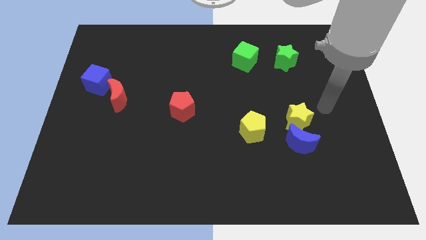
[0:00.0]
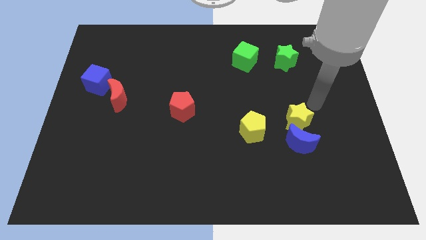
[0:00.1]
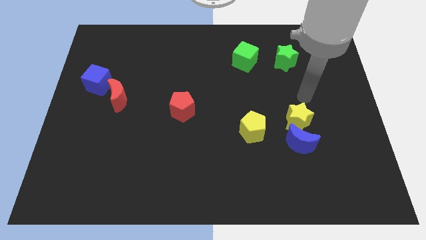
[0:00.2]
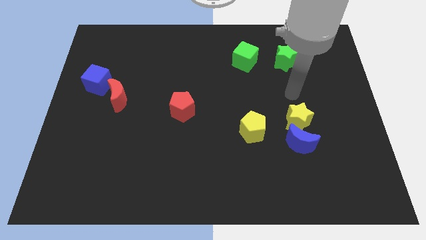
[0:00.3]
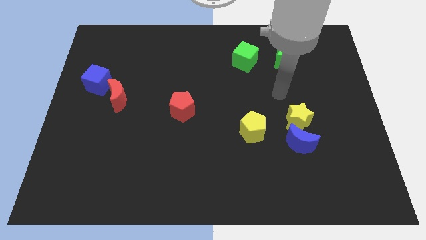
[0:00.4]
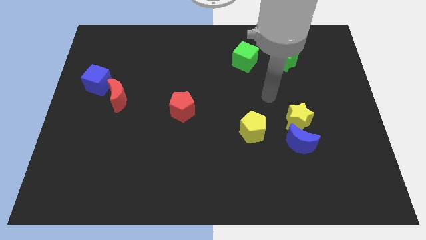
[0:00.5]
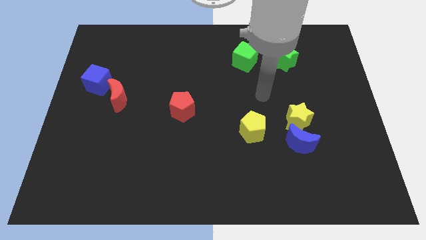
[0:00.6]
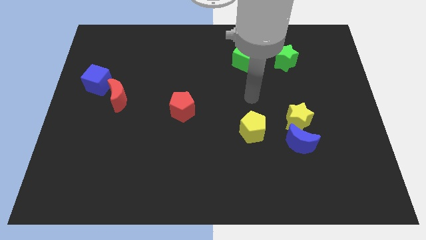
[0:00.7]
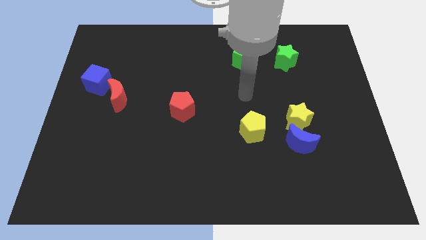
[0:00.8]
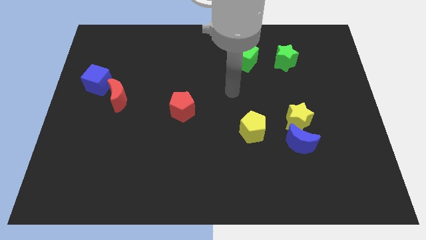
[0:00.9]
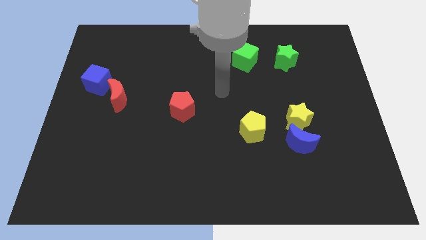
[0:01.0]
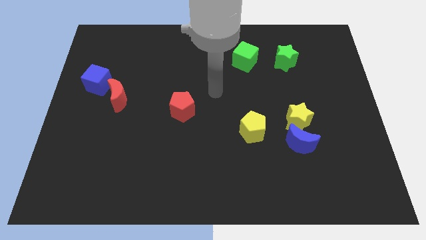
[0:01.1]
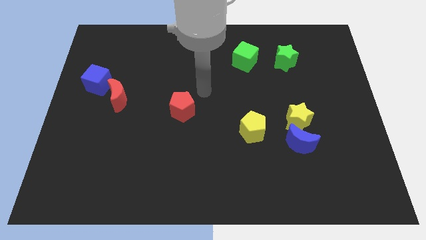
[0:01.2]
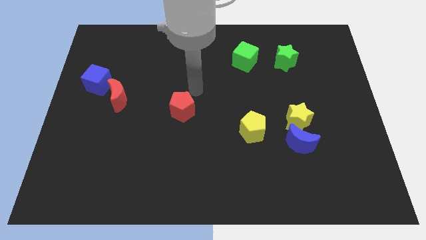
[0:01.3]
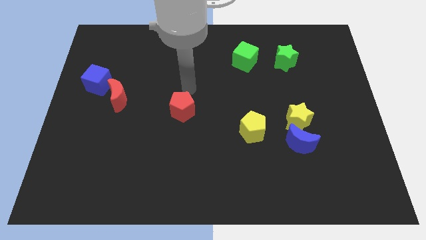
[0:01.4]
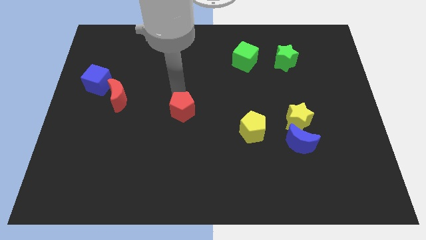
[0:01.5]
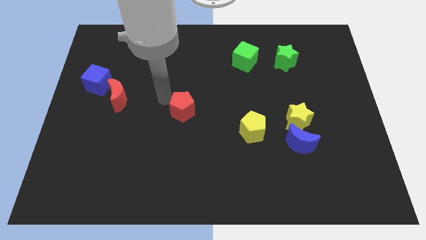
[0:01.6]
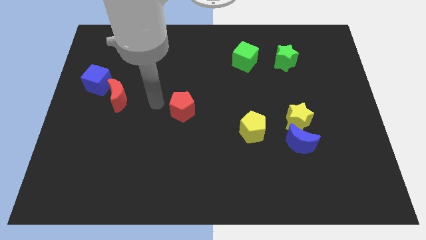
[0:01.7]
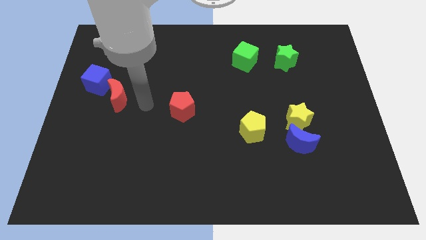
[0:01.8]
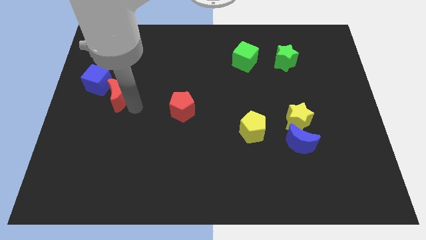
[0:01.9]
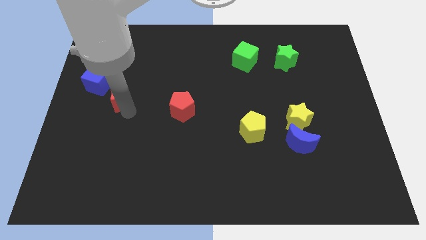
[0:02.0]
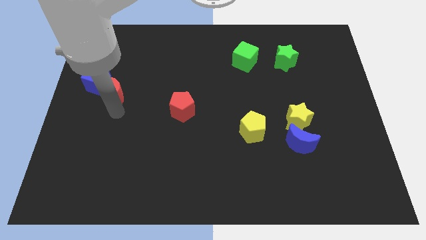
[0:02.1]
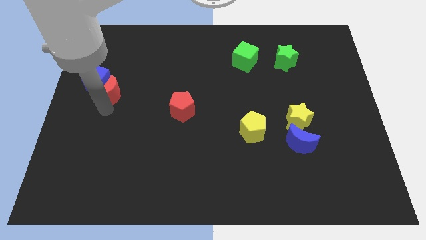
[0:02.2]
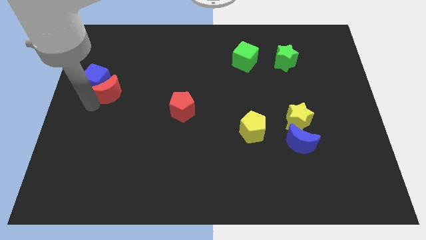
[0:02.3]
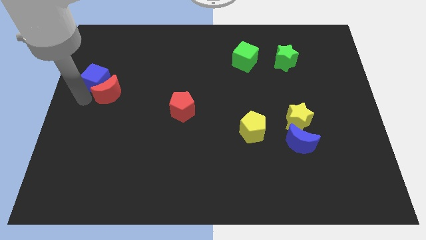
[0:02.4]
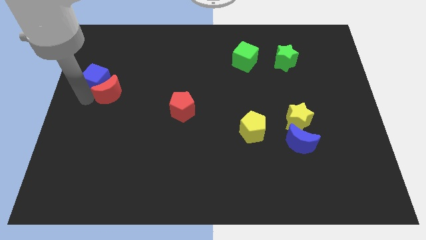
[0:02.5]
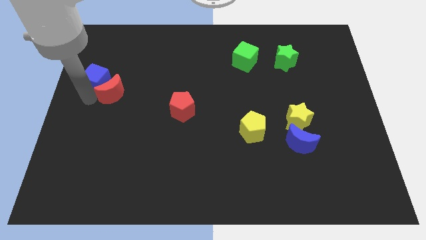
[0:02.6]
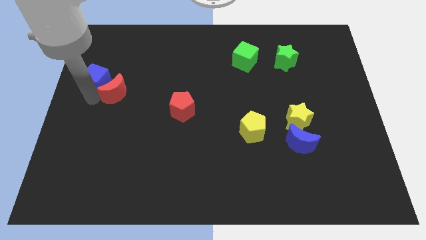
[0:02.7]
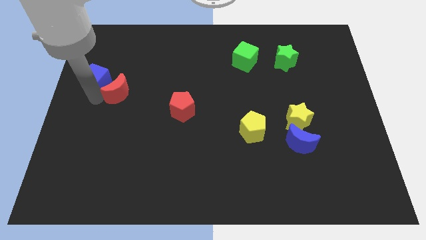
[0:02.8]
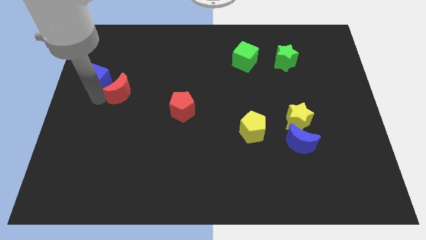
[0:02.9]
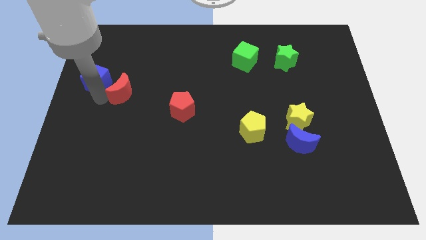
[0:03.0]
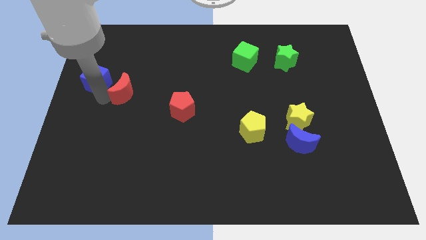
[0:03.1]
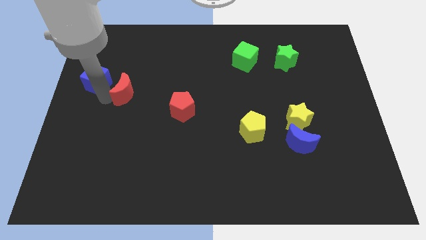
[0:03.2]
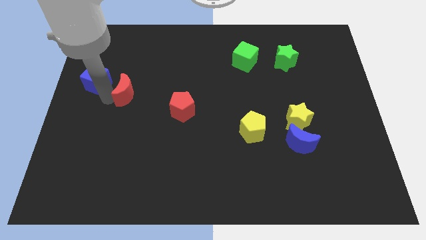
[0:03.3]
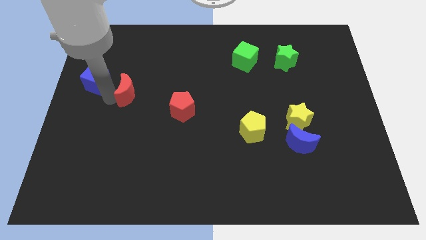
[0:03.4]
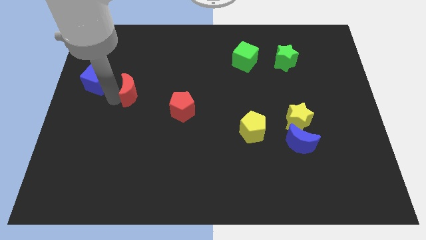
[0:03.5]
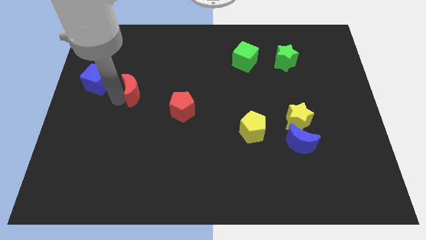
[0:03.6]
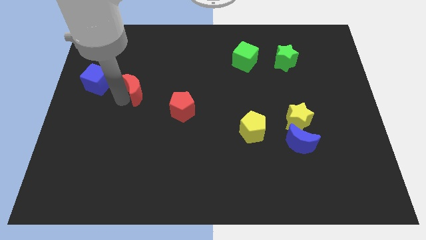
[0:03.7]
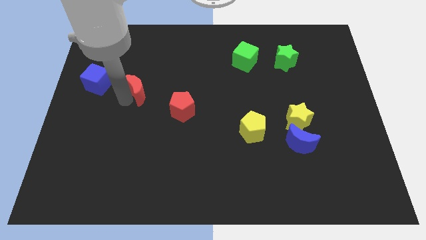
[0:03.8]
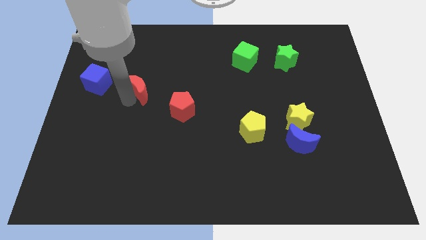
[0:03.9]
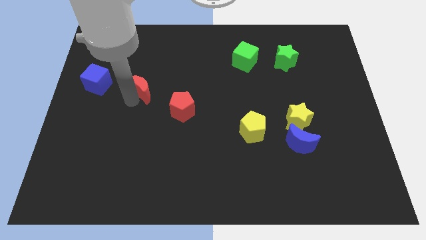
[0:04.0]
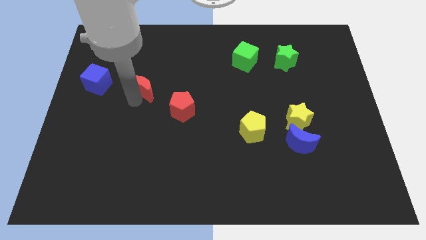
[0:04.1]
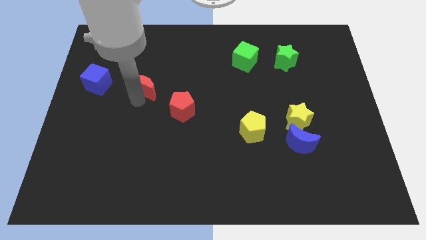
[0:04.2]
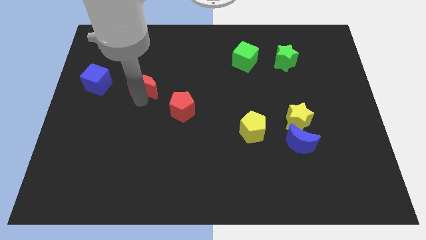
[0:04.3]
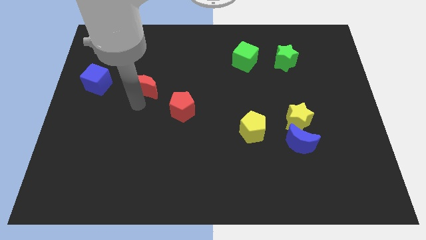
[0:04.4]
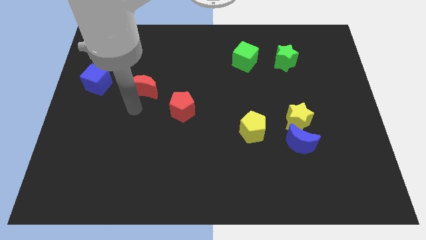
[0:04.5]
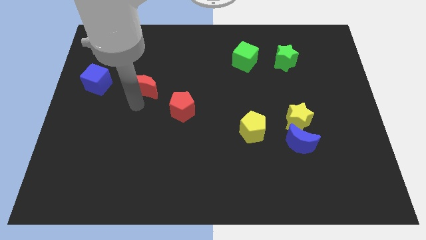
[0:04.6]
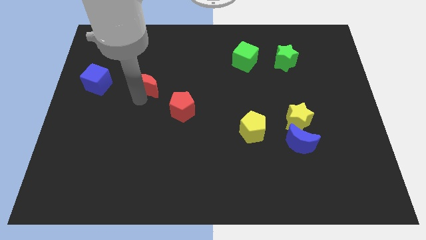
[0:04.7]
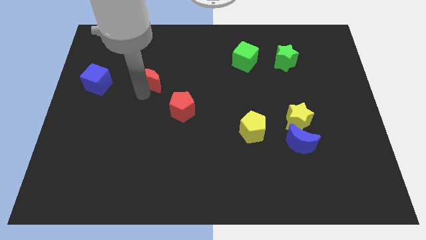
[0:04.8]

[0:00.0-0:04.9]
slightly push the red moon upwards and right

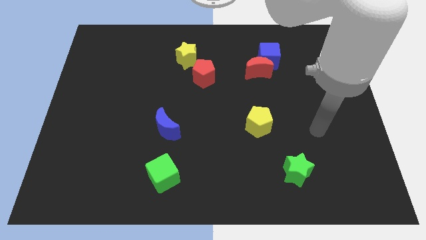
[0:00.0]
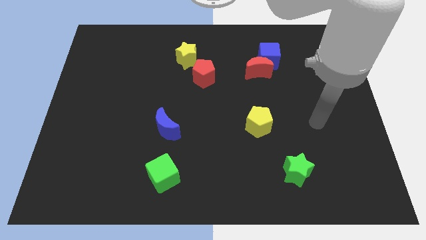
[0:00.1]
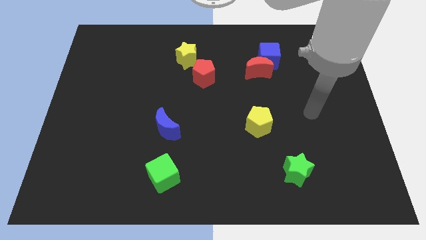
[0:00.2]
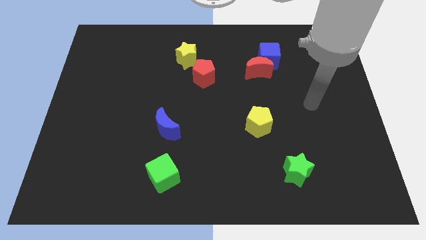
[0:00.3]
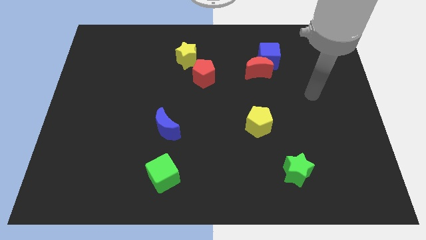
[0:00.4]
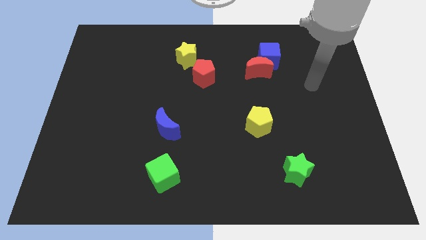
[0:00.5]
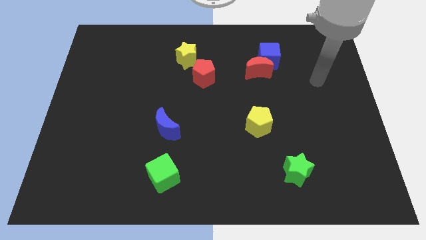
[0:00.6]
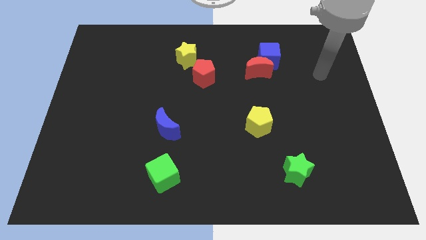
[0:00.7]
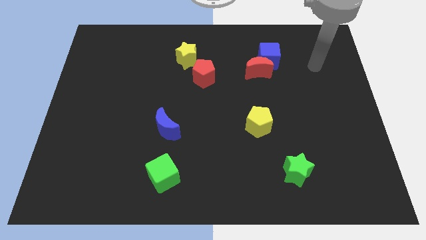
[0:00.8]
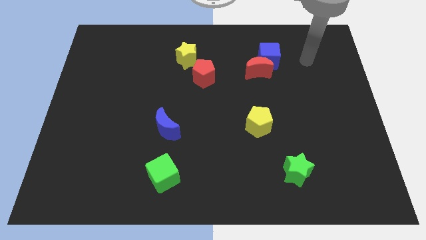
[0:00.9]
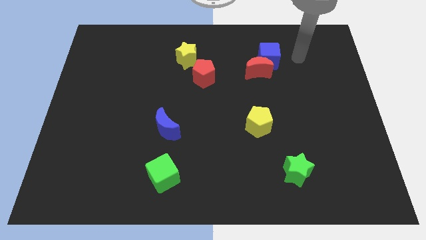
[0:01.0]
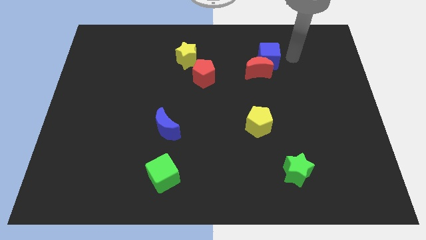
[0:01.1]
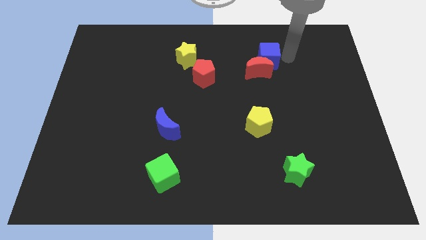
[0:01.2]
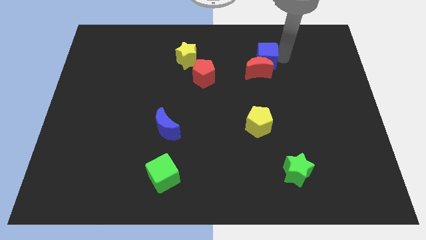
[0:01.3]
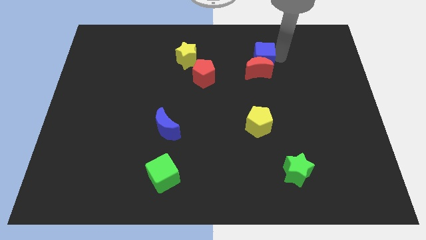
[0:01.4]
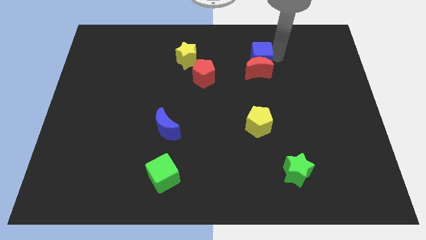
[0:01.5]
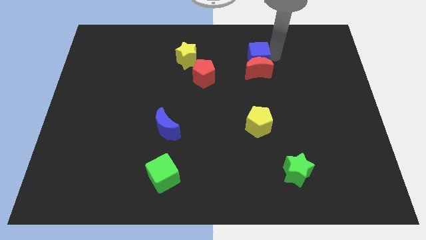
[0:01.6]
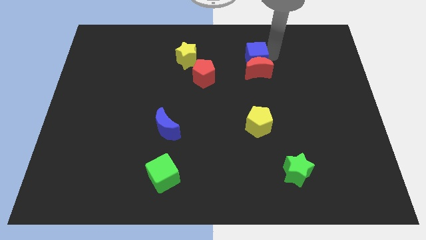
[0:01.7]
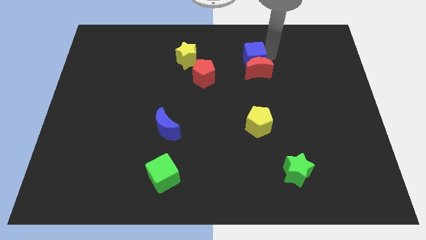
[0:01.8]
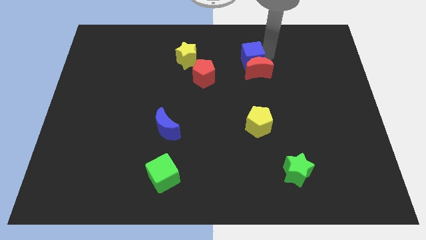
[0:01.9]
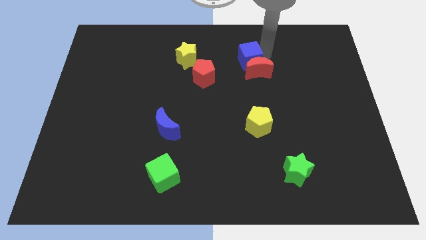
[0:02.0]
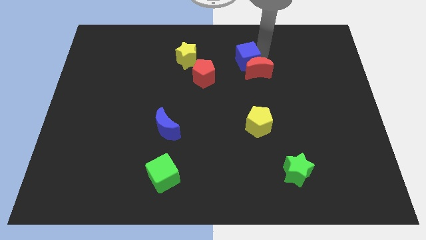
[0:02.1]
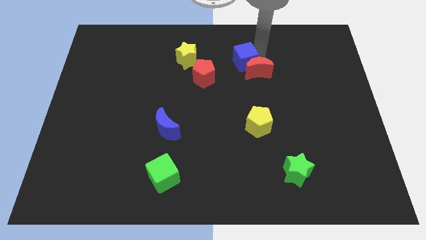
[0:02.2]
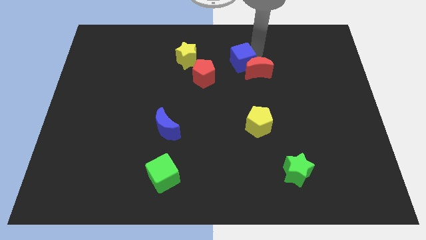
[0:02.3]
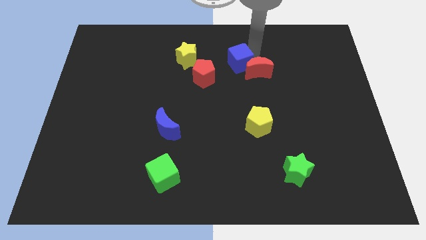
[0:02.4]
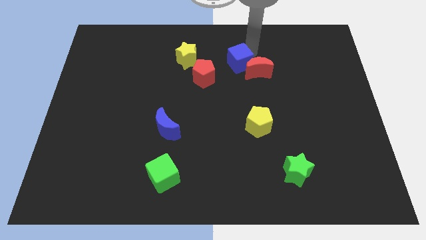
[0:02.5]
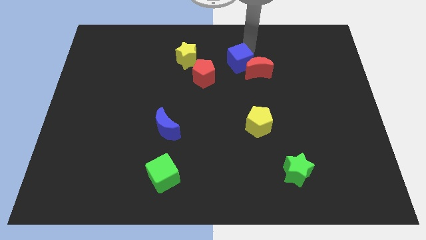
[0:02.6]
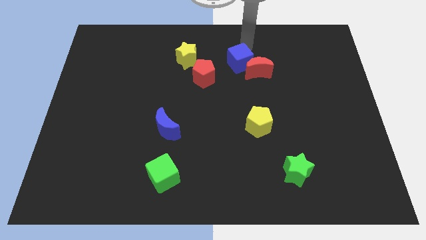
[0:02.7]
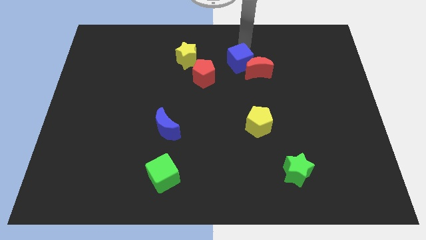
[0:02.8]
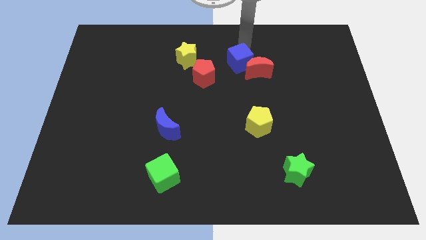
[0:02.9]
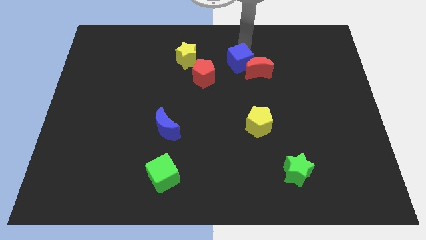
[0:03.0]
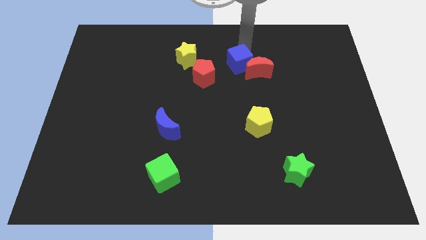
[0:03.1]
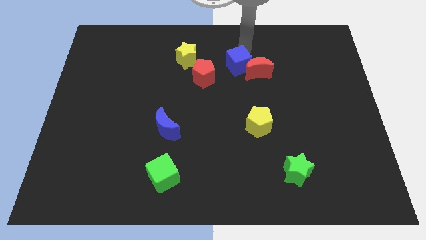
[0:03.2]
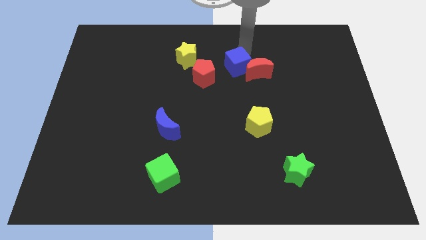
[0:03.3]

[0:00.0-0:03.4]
slightly push the blue cube down and to the left
